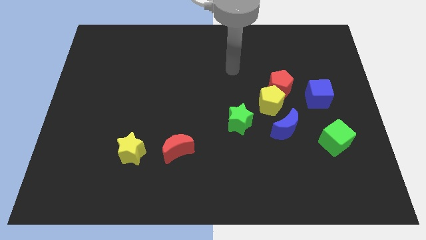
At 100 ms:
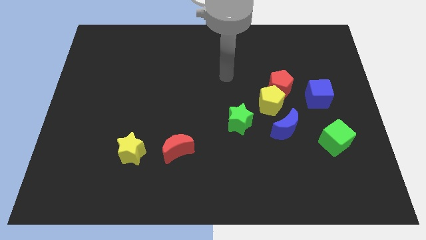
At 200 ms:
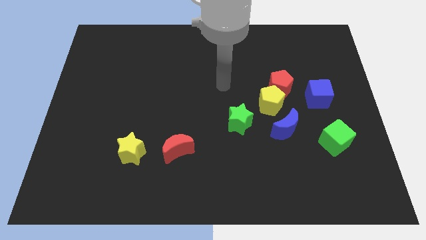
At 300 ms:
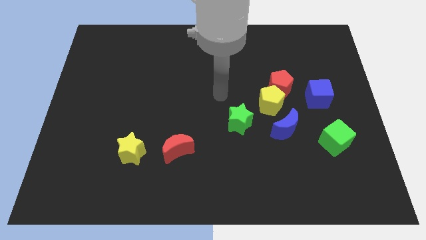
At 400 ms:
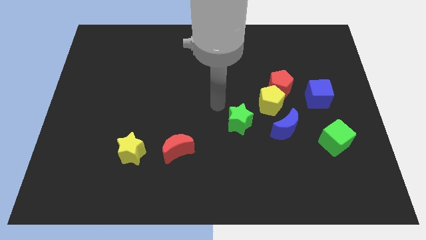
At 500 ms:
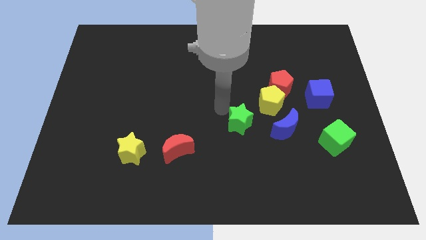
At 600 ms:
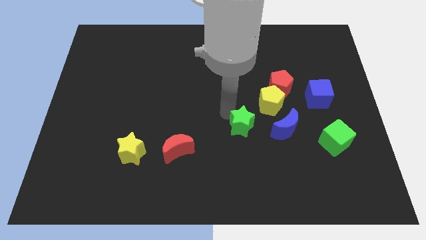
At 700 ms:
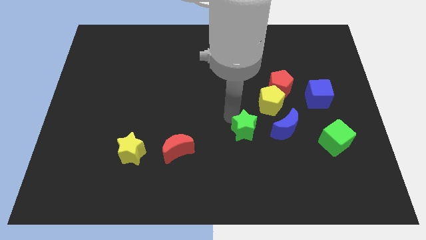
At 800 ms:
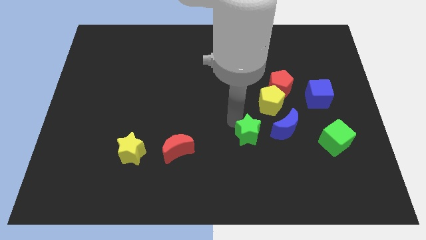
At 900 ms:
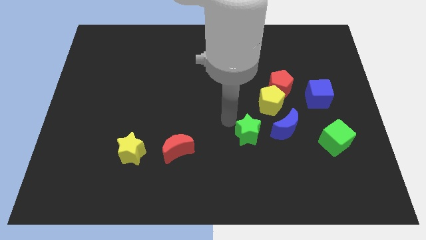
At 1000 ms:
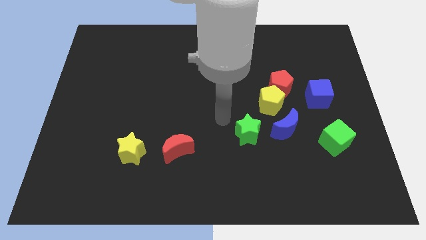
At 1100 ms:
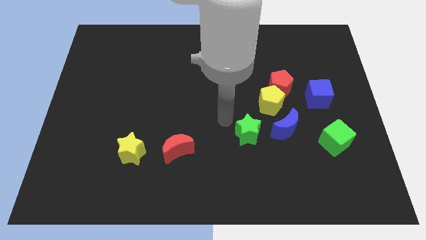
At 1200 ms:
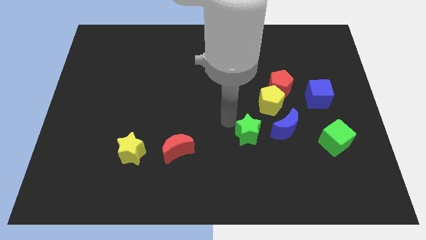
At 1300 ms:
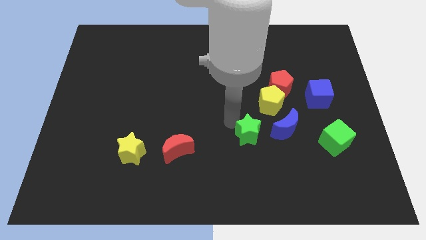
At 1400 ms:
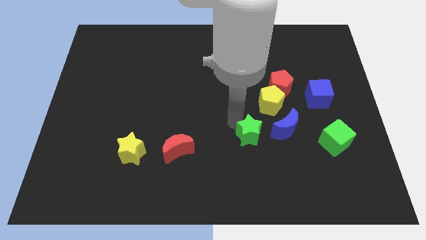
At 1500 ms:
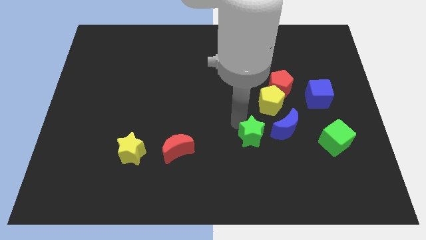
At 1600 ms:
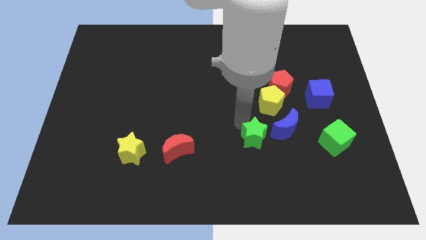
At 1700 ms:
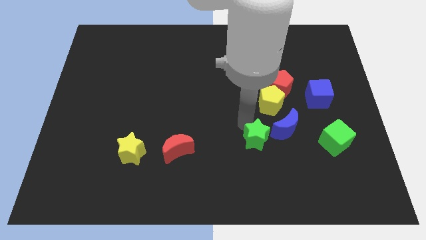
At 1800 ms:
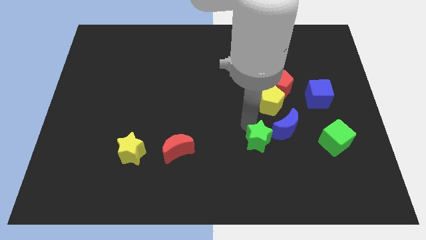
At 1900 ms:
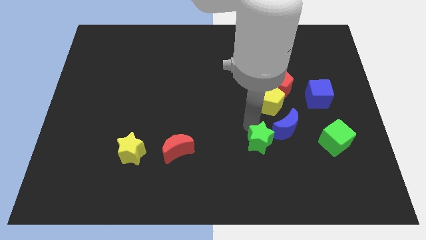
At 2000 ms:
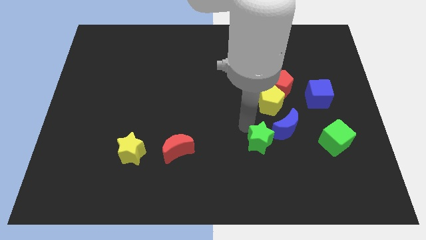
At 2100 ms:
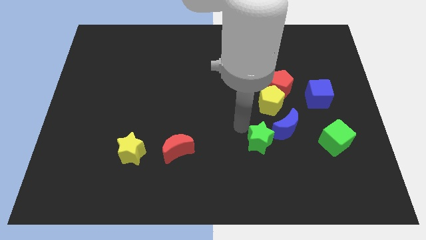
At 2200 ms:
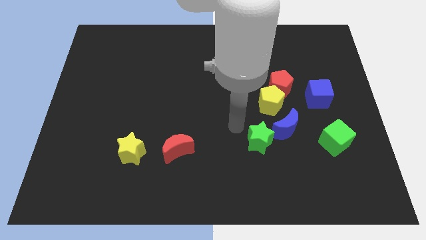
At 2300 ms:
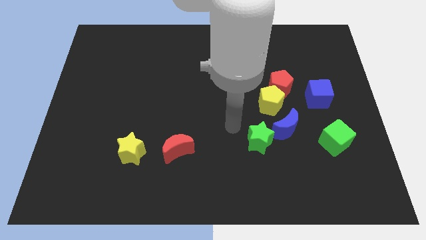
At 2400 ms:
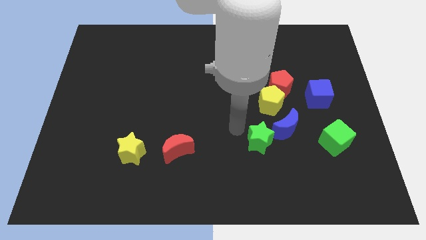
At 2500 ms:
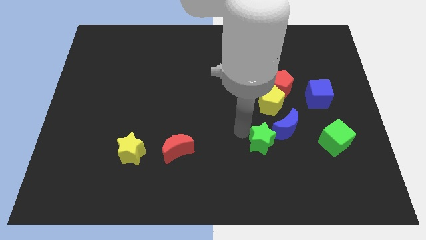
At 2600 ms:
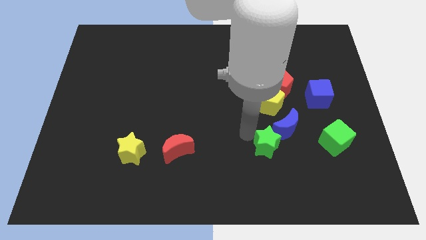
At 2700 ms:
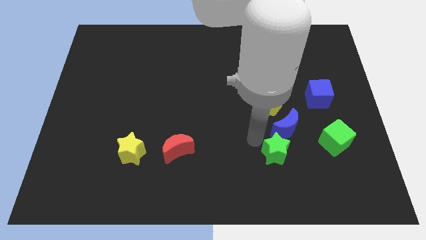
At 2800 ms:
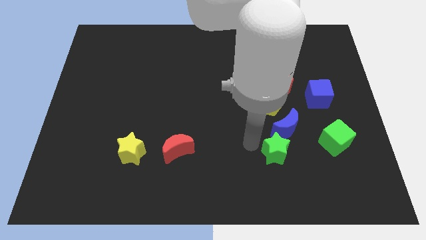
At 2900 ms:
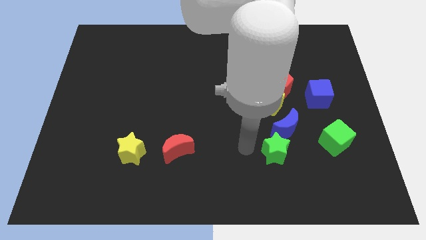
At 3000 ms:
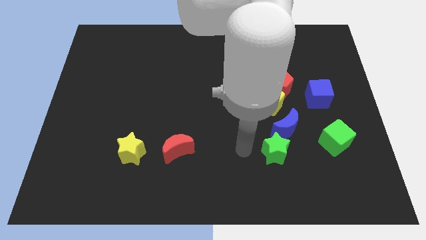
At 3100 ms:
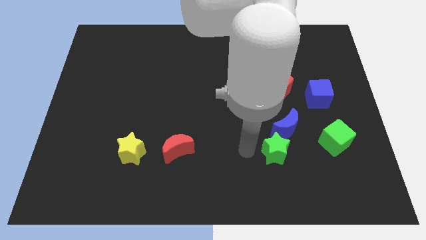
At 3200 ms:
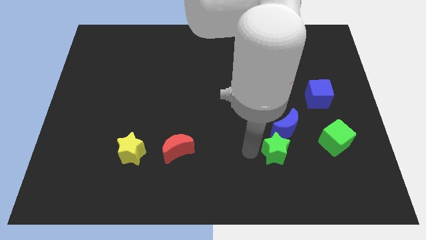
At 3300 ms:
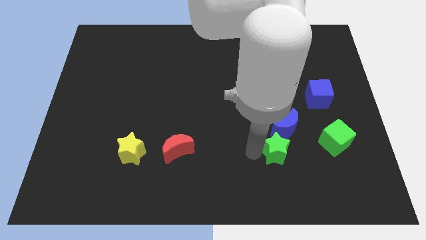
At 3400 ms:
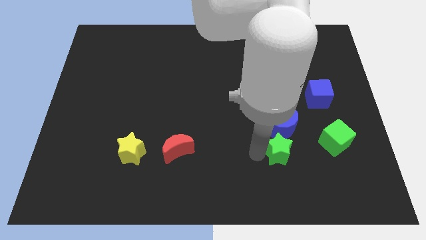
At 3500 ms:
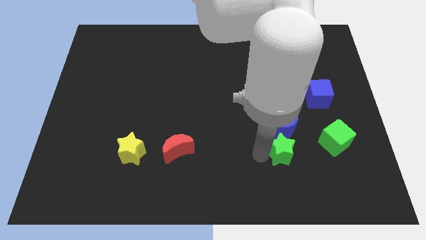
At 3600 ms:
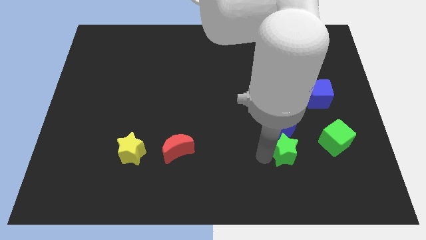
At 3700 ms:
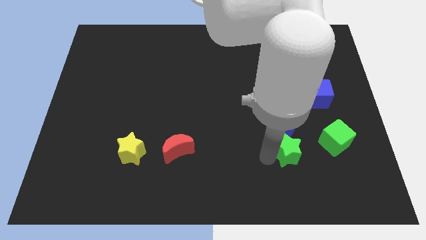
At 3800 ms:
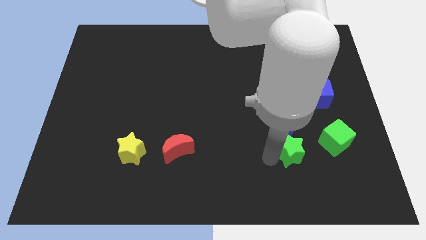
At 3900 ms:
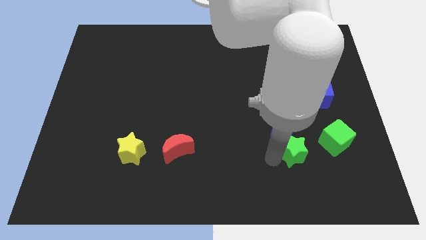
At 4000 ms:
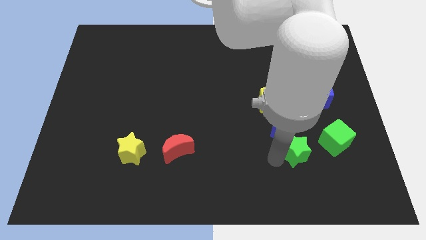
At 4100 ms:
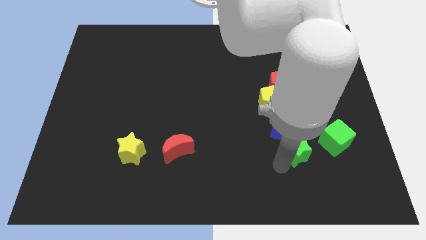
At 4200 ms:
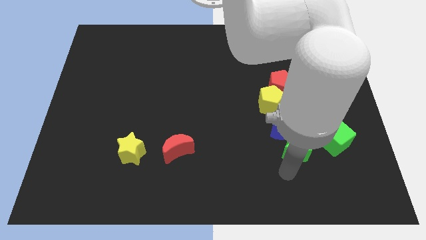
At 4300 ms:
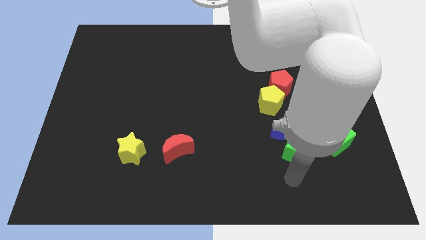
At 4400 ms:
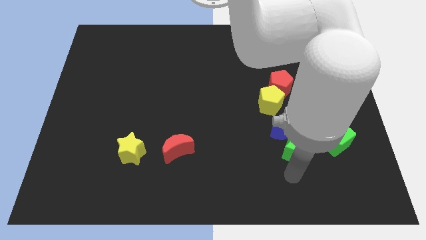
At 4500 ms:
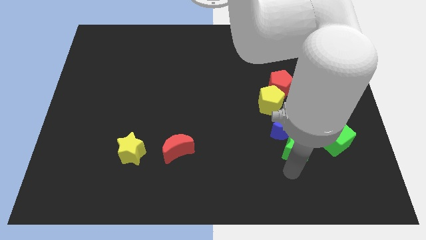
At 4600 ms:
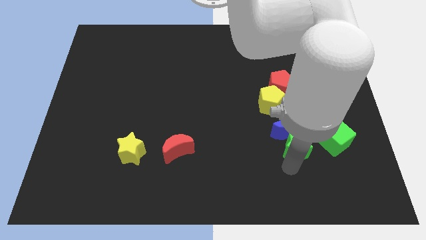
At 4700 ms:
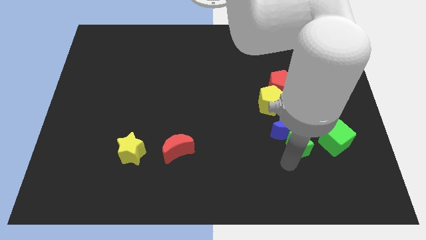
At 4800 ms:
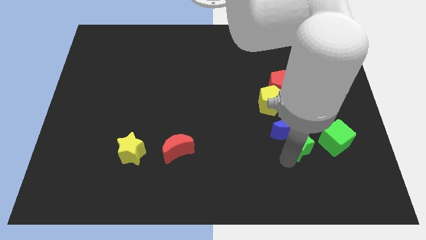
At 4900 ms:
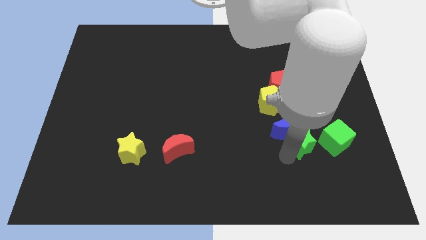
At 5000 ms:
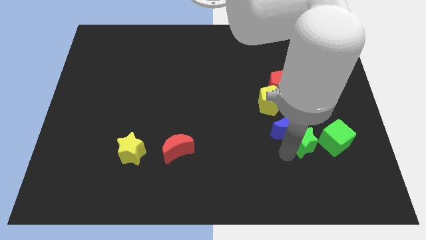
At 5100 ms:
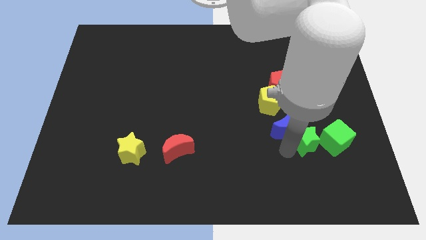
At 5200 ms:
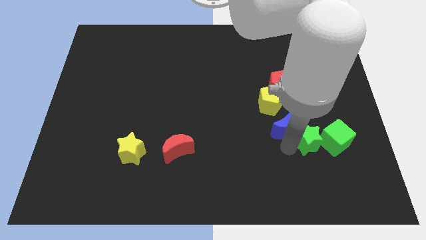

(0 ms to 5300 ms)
move the green star diagonally down and to the right of the yellow pentagon

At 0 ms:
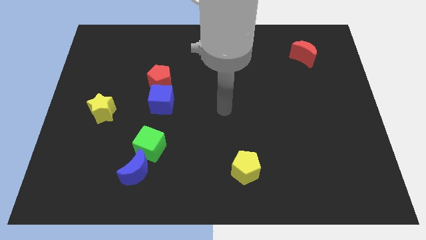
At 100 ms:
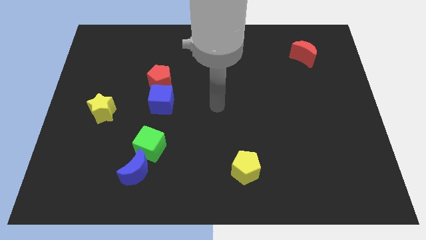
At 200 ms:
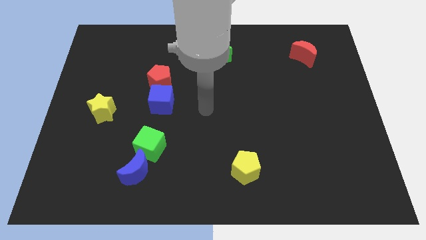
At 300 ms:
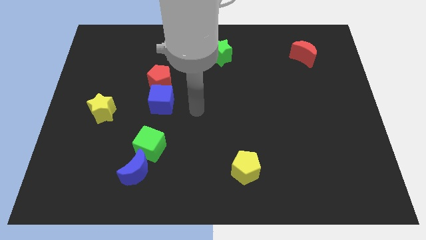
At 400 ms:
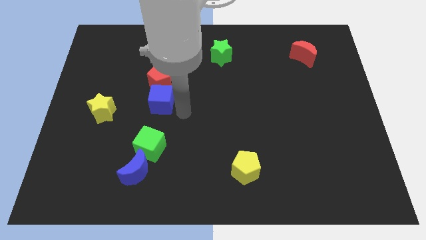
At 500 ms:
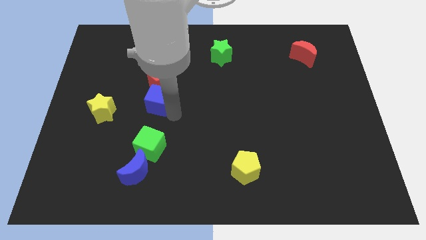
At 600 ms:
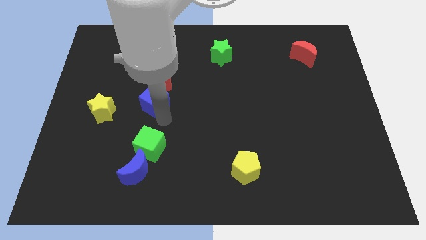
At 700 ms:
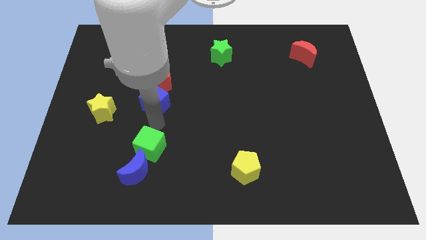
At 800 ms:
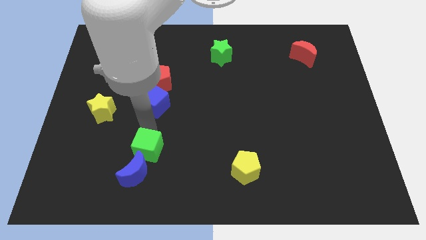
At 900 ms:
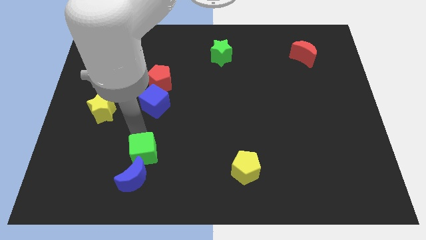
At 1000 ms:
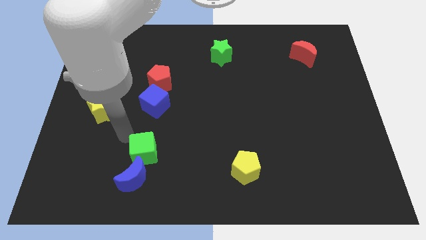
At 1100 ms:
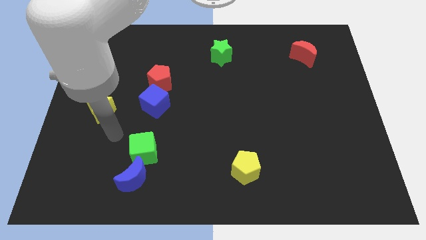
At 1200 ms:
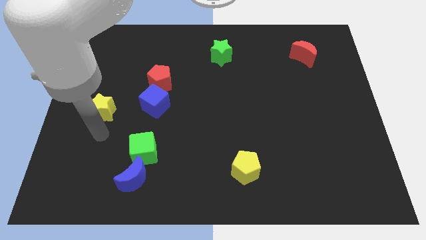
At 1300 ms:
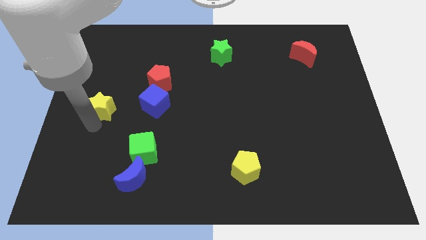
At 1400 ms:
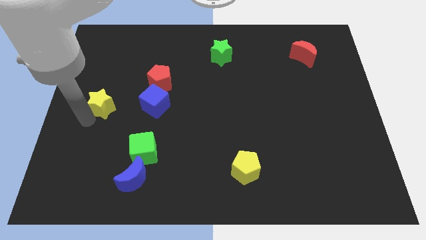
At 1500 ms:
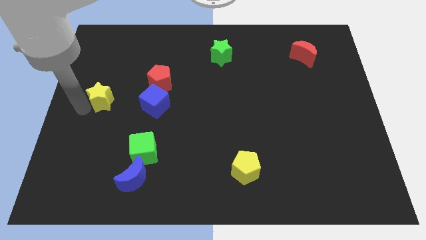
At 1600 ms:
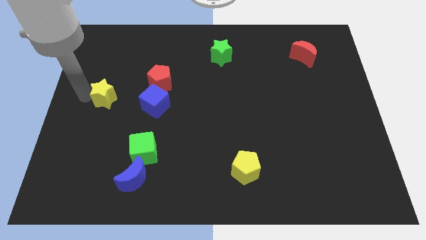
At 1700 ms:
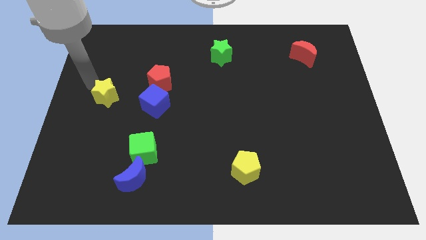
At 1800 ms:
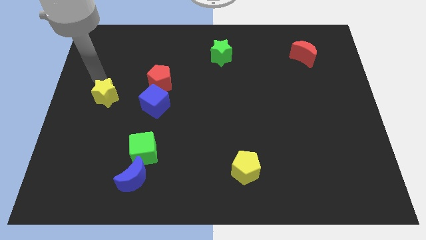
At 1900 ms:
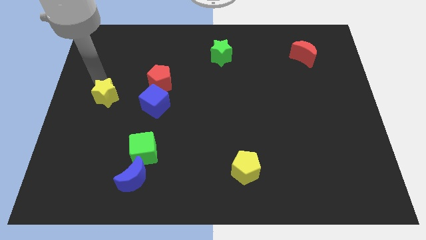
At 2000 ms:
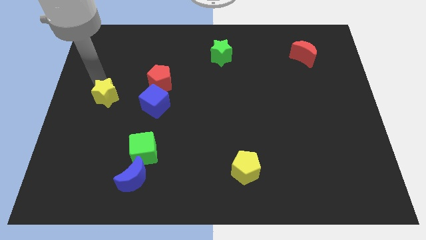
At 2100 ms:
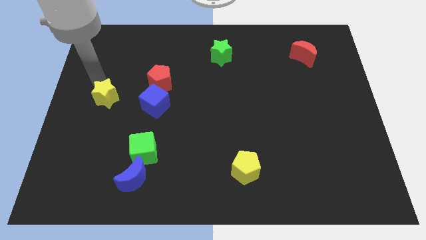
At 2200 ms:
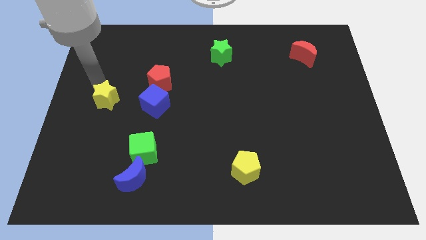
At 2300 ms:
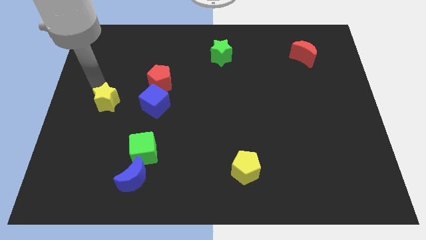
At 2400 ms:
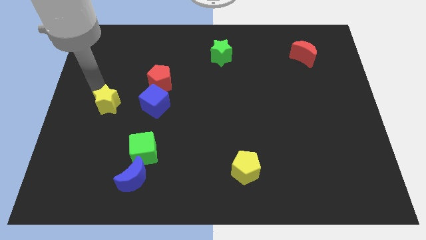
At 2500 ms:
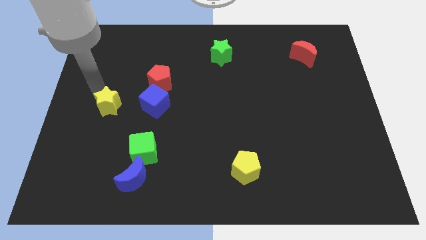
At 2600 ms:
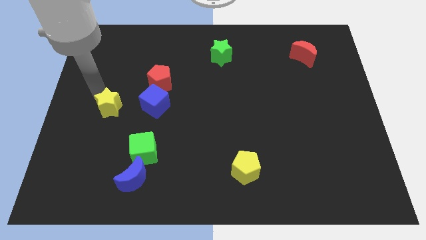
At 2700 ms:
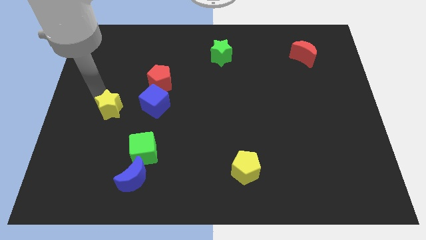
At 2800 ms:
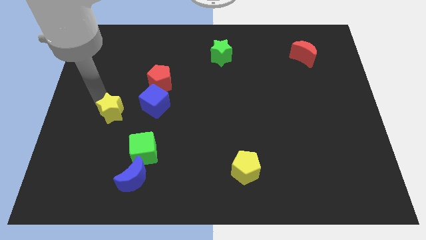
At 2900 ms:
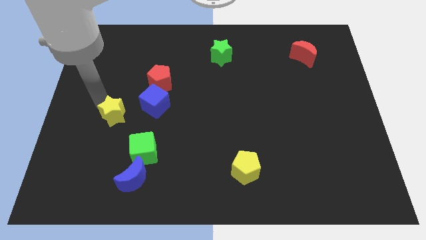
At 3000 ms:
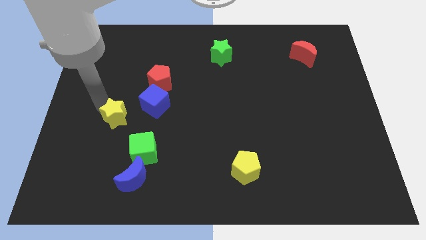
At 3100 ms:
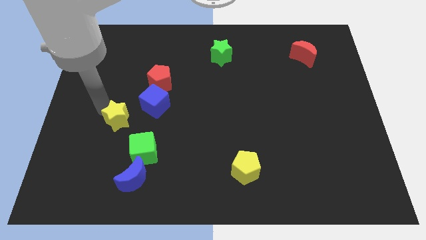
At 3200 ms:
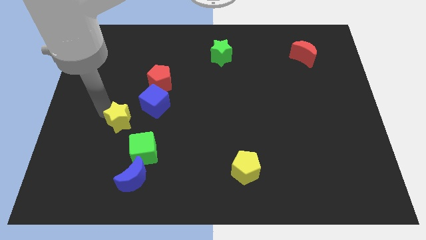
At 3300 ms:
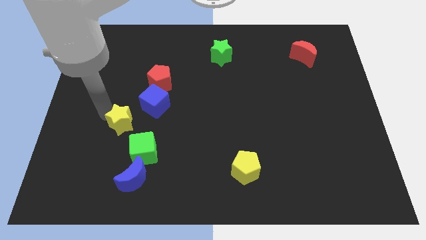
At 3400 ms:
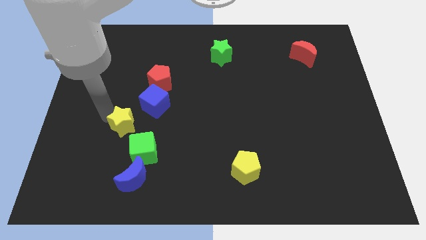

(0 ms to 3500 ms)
move the yellow star to the top of the blue moon
